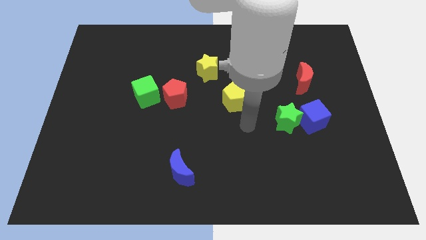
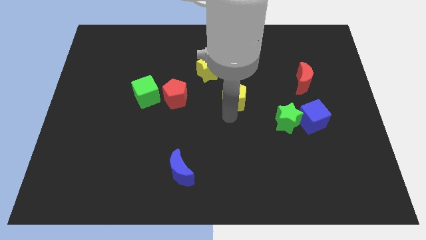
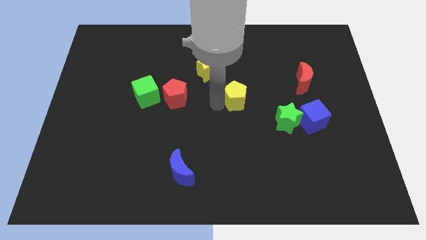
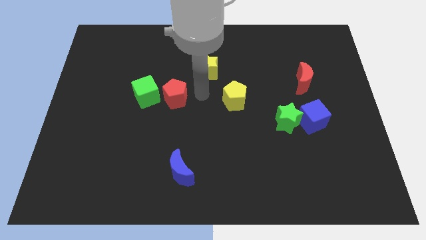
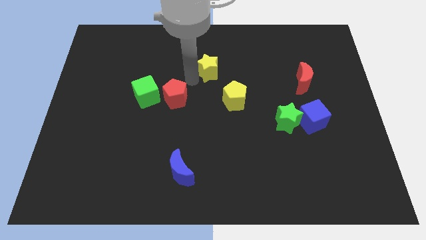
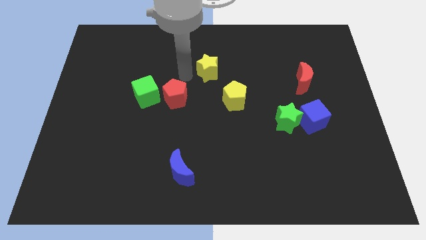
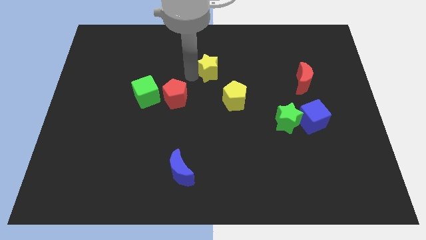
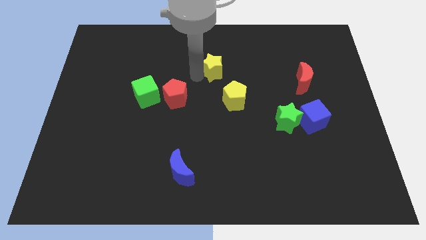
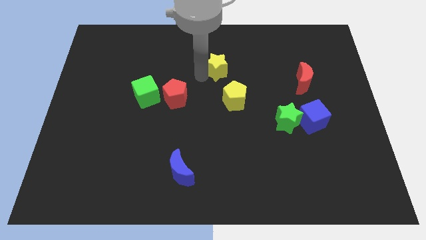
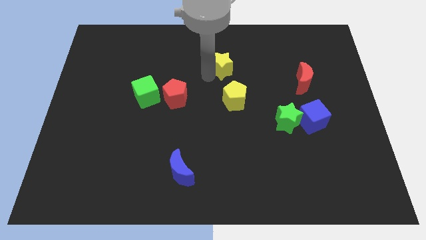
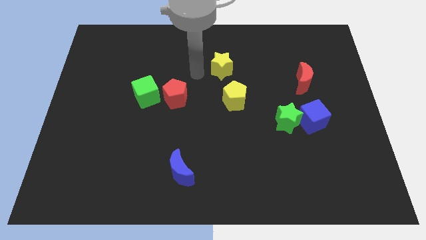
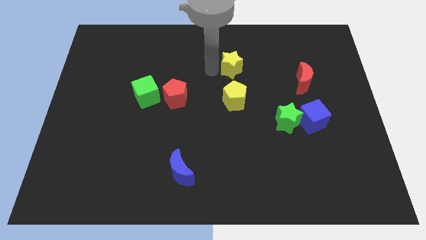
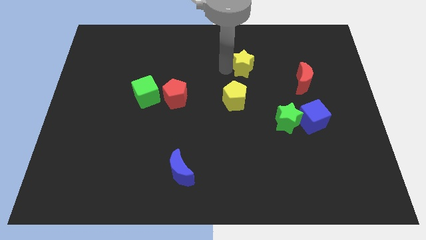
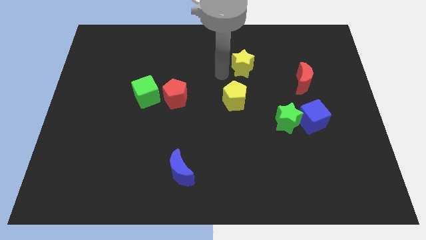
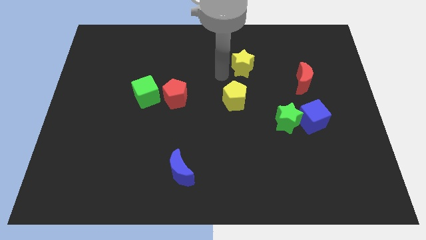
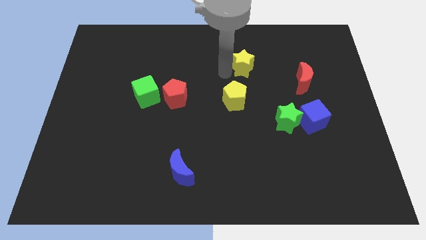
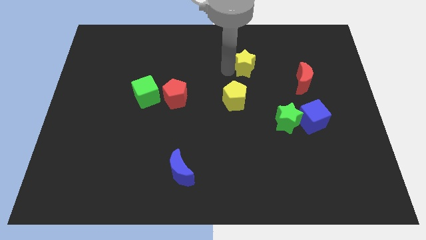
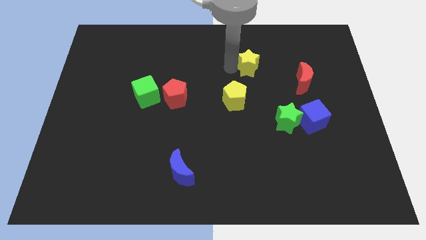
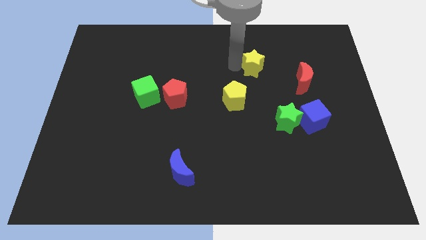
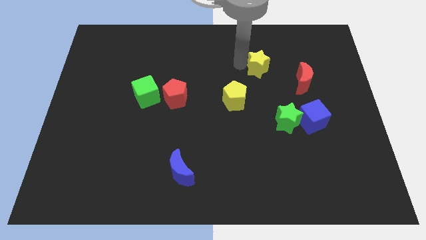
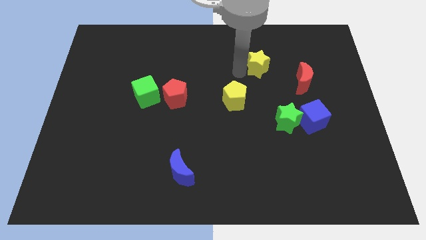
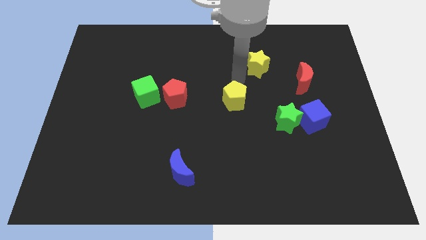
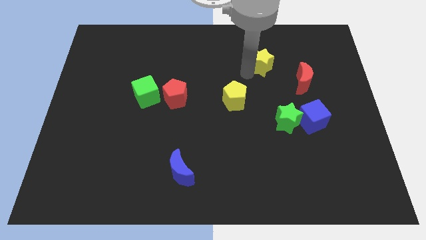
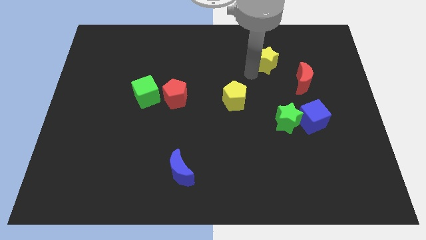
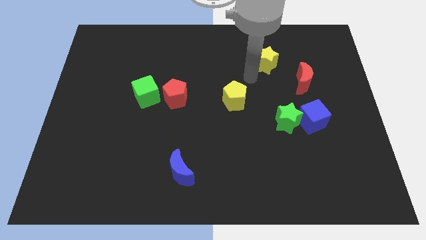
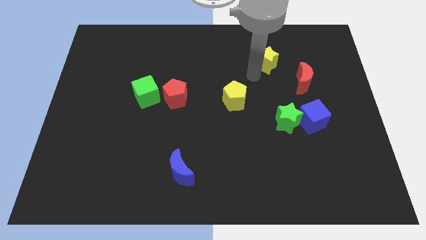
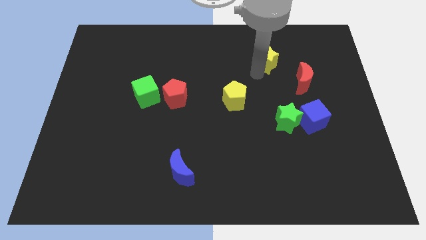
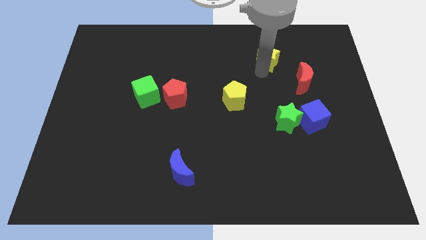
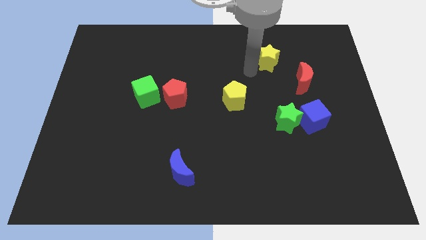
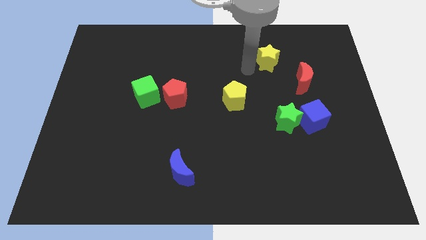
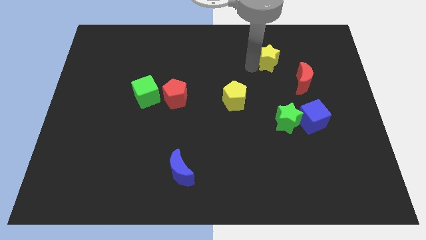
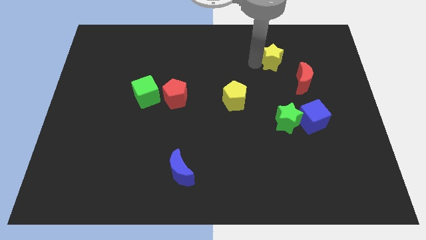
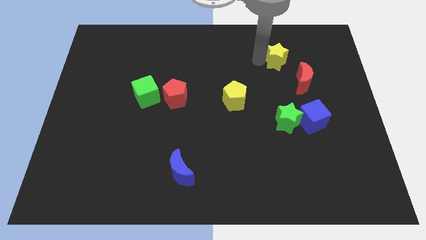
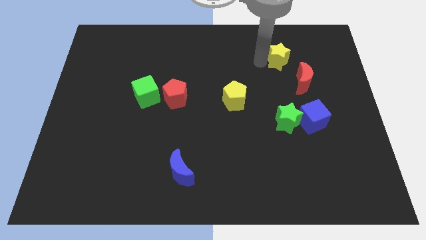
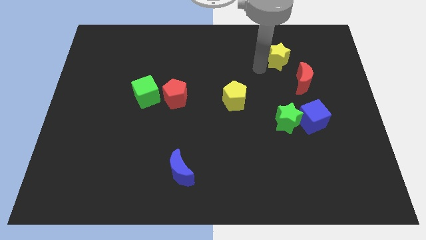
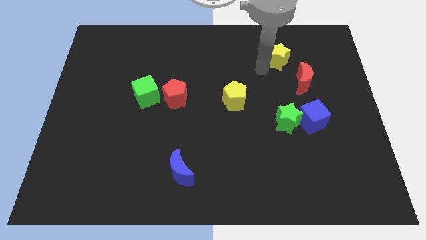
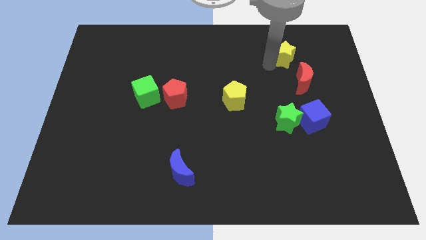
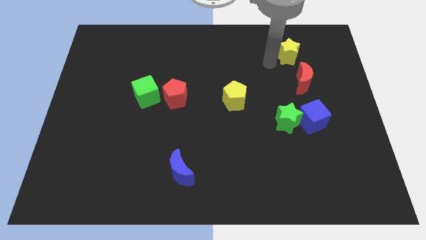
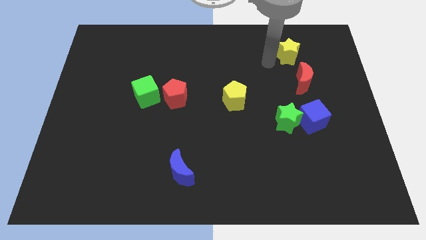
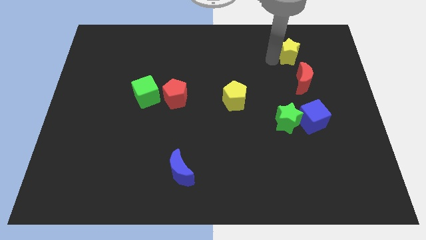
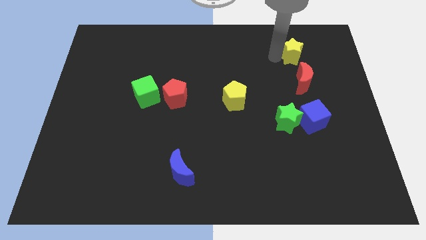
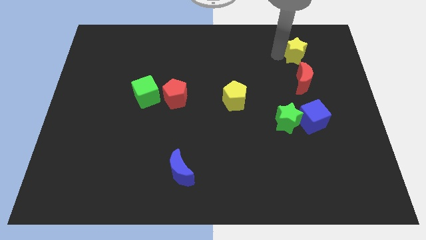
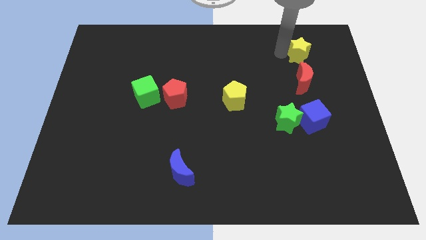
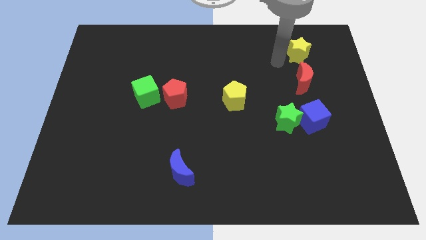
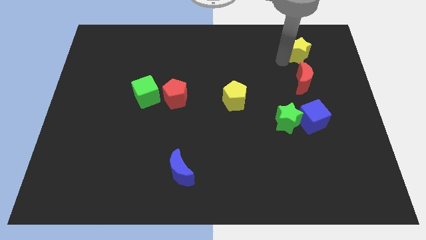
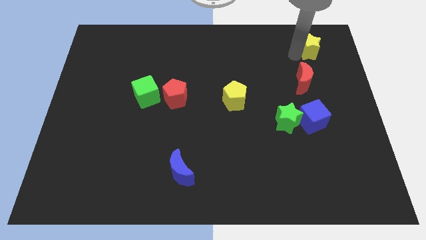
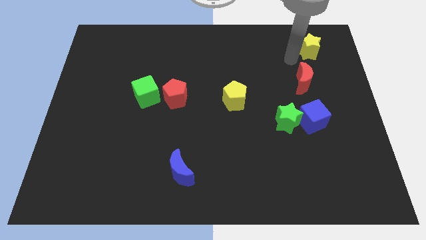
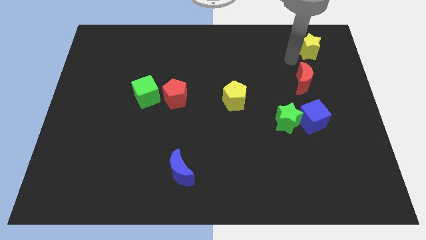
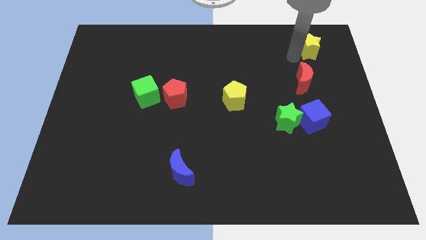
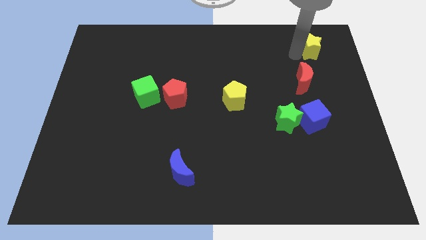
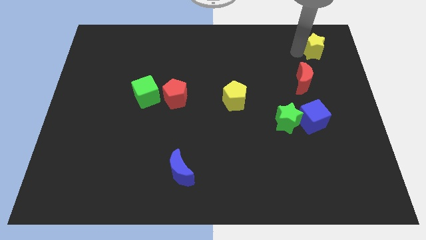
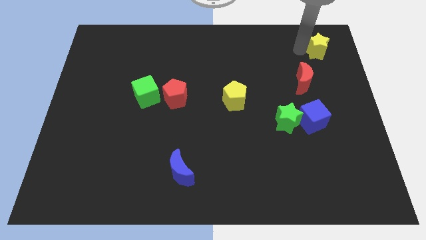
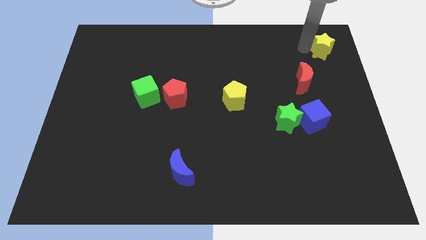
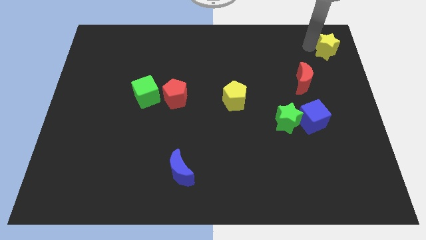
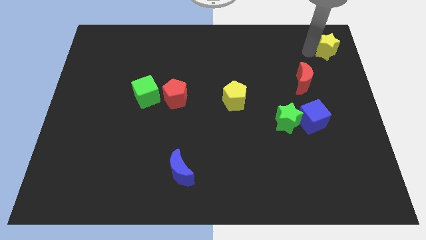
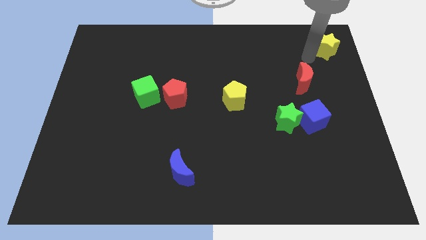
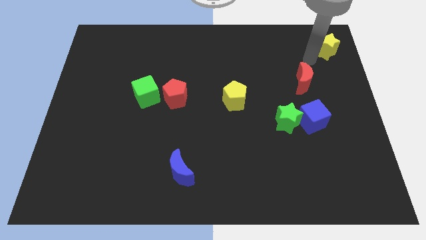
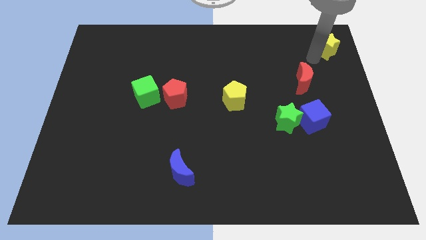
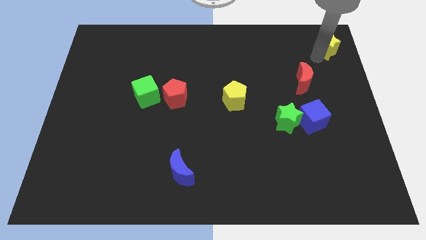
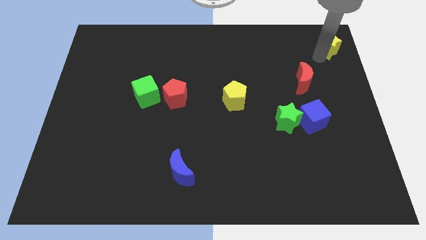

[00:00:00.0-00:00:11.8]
put the yellow star to the top right of the board

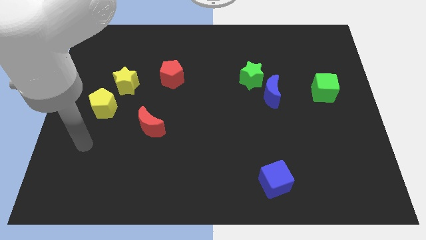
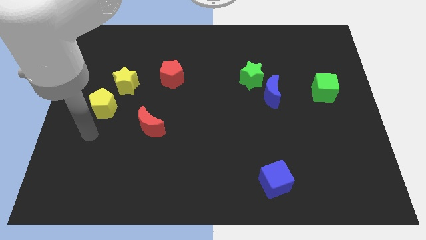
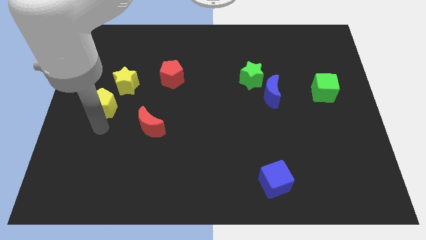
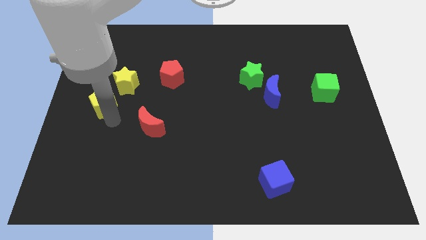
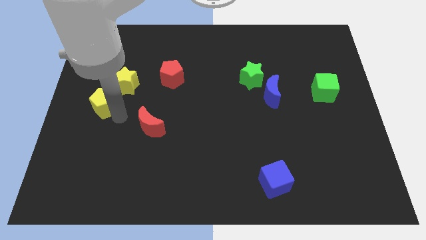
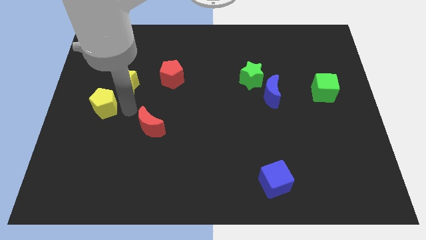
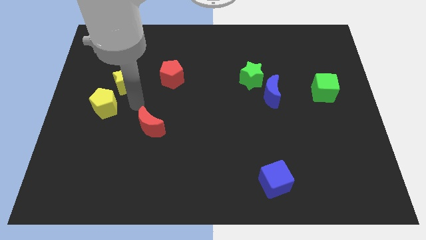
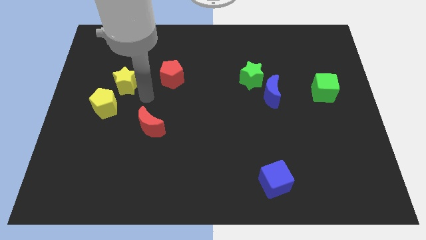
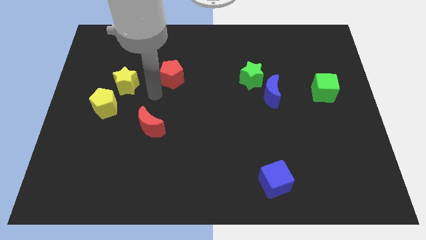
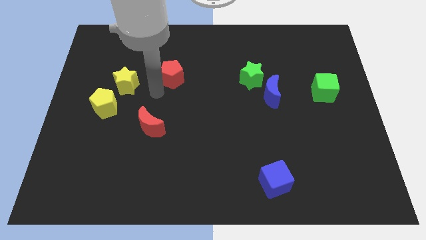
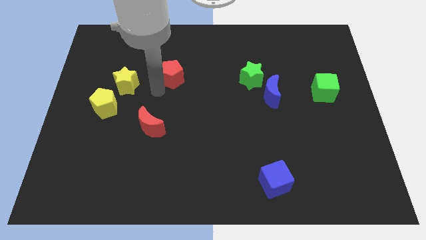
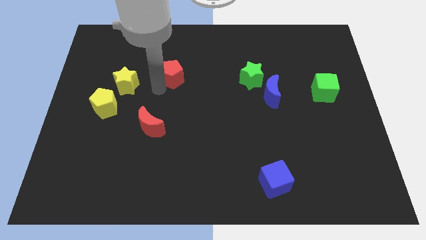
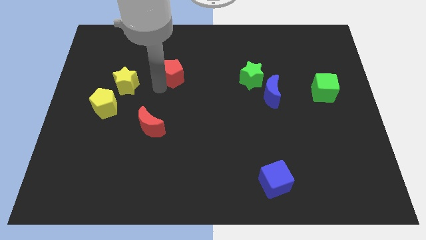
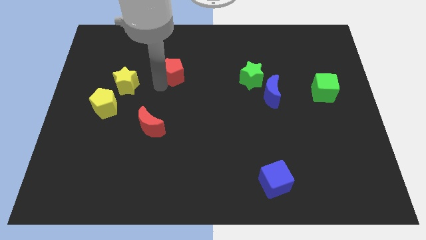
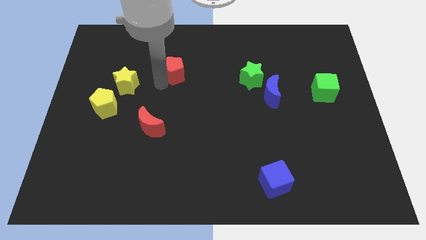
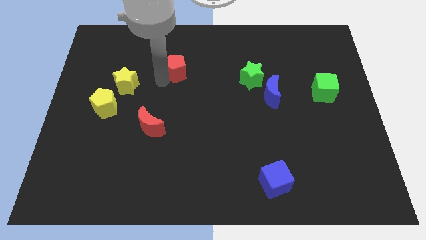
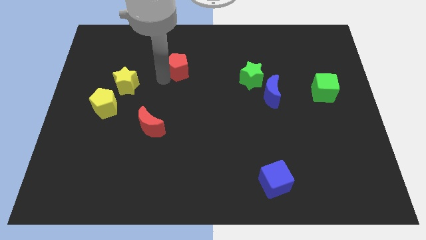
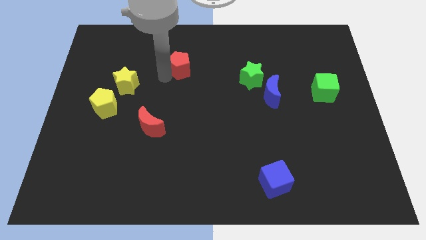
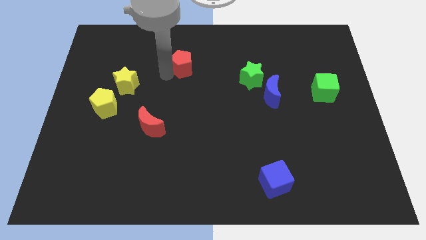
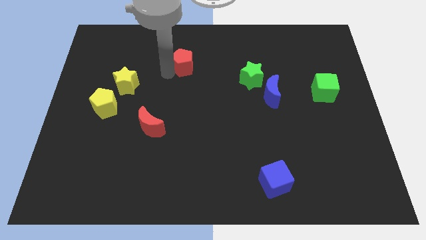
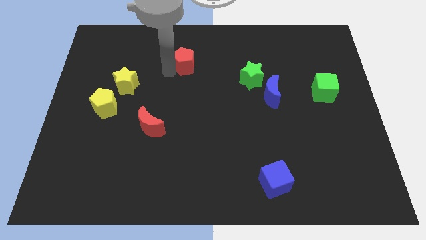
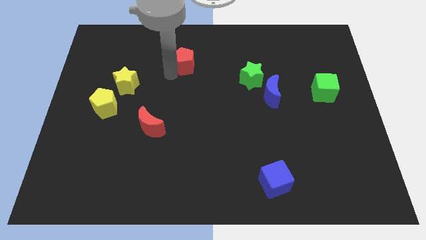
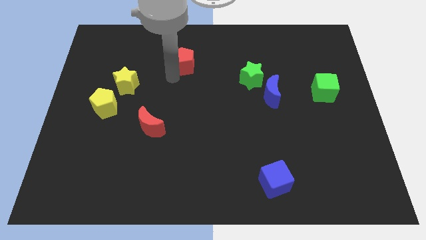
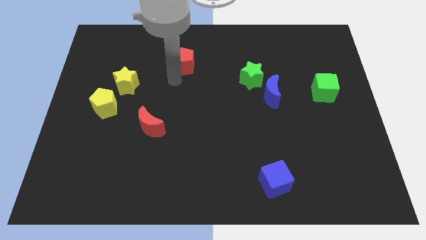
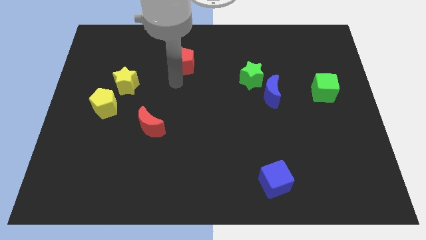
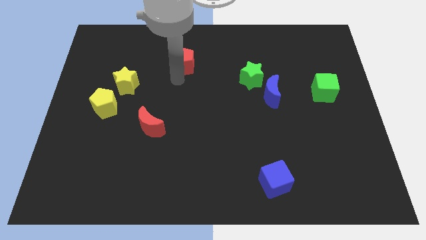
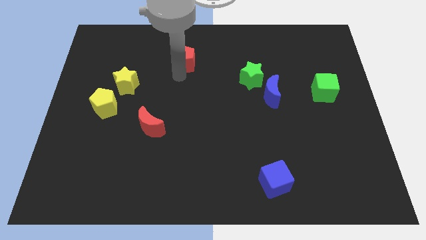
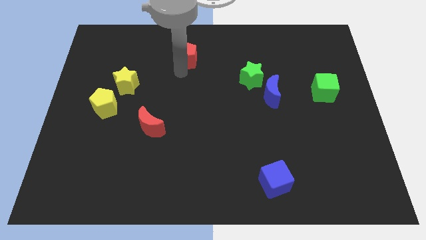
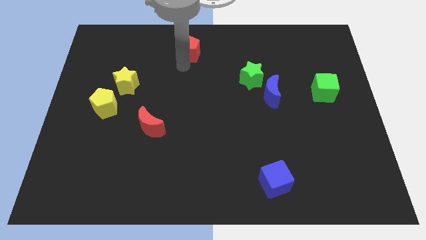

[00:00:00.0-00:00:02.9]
push the red pentagon to the top
